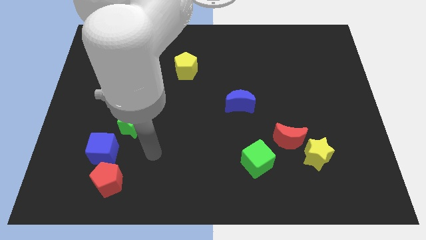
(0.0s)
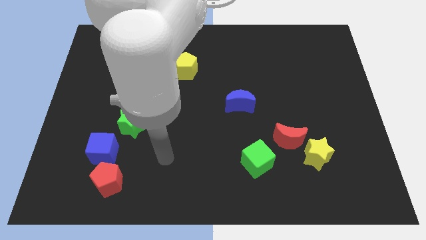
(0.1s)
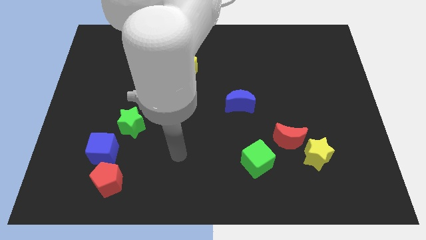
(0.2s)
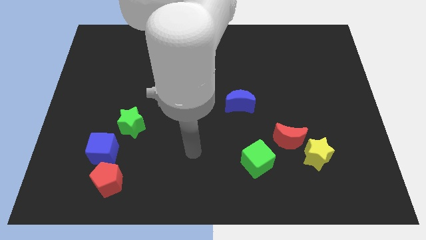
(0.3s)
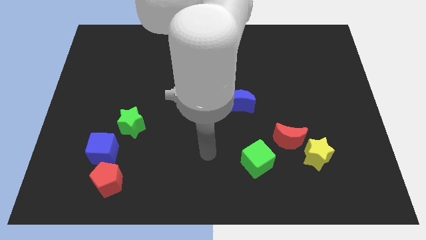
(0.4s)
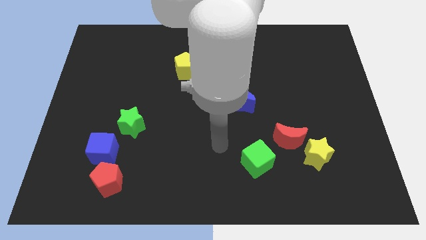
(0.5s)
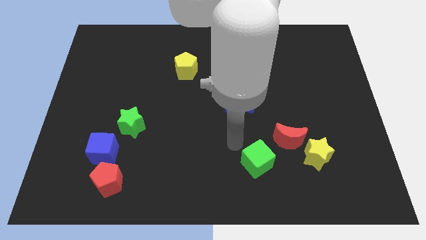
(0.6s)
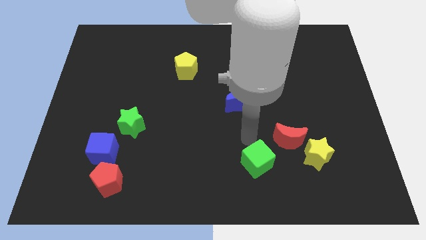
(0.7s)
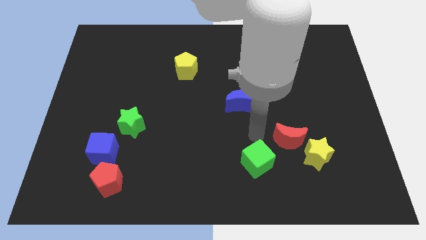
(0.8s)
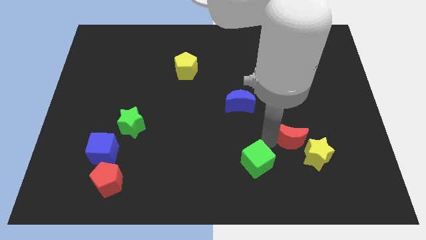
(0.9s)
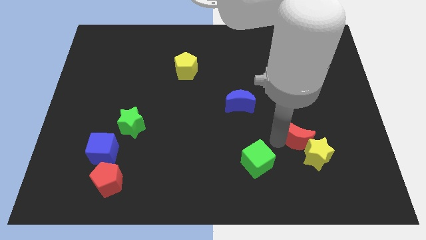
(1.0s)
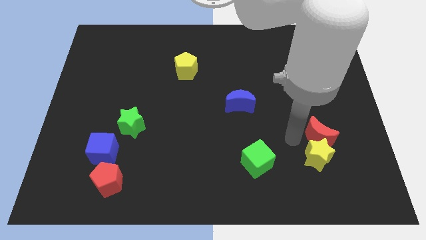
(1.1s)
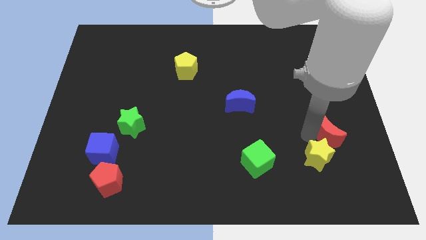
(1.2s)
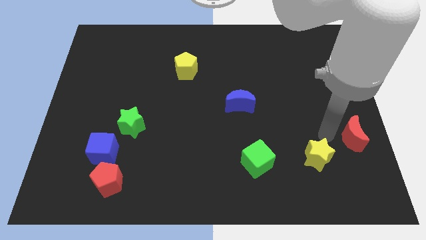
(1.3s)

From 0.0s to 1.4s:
move the yellow star away from the red moon

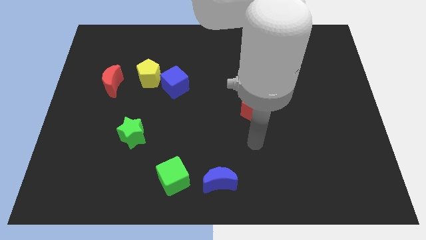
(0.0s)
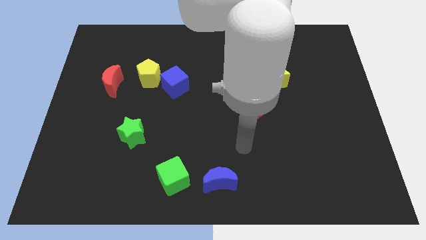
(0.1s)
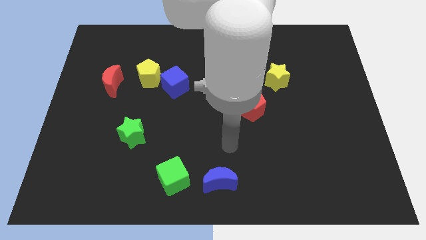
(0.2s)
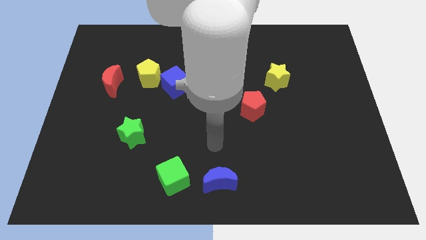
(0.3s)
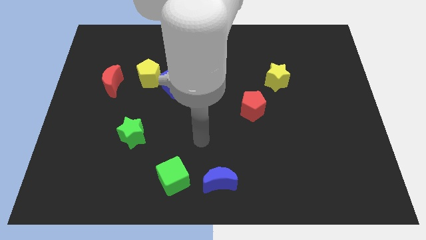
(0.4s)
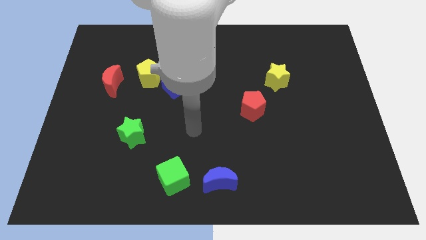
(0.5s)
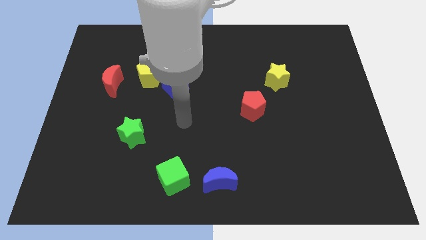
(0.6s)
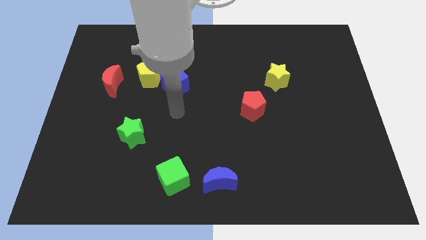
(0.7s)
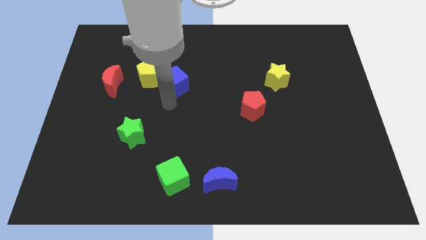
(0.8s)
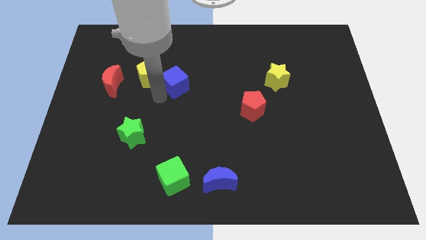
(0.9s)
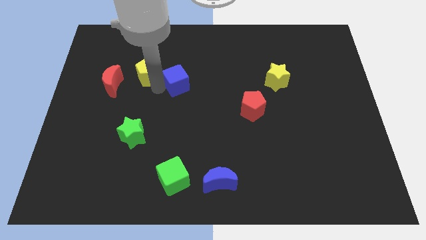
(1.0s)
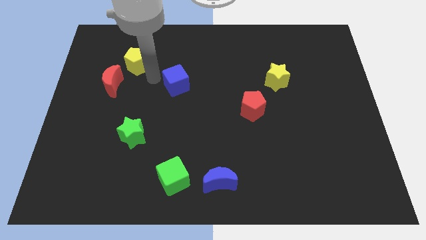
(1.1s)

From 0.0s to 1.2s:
move the blue cube away from the yellow pentagon

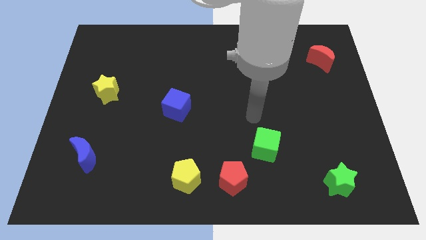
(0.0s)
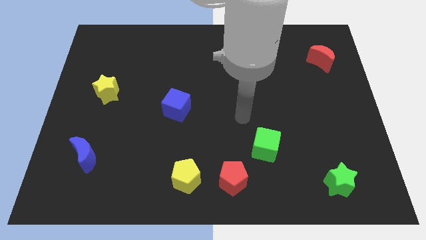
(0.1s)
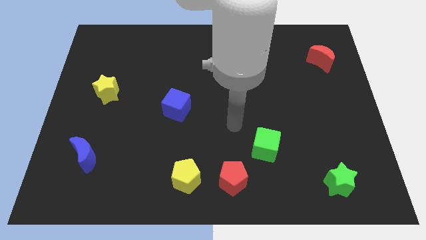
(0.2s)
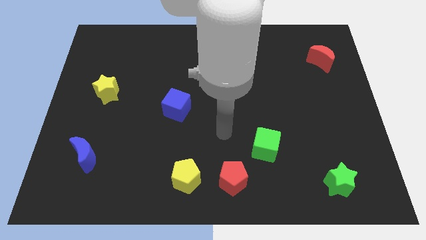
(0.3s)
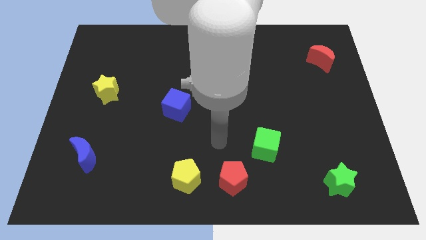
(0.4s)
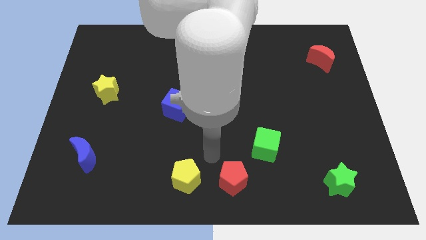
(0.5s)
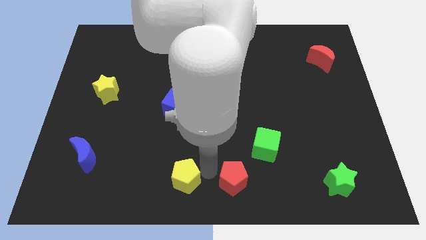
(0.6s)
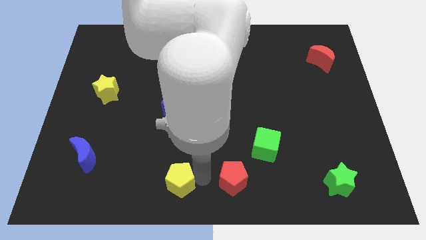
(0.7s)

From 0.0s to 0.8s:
move the red pentagon away from the yellow pentagon

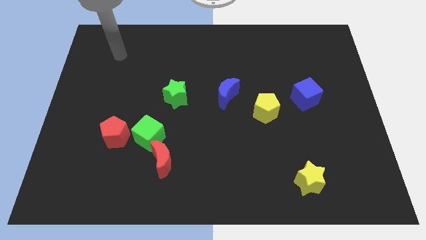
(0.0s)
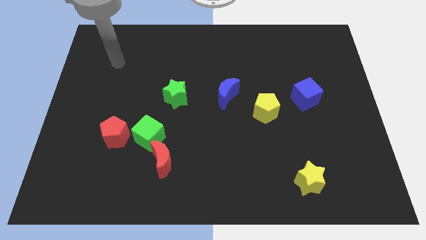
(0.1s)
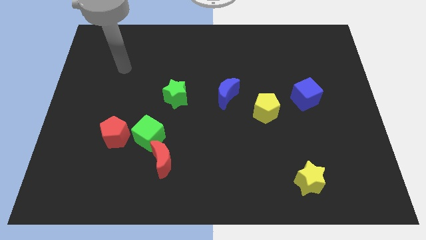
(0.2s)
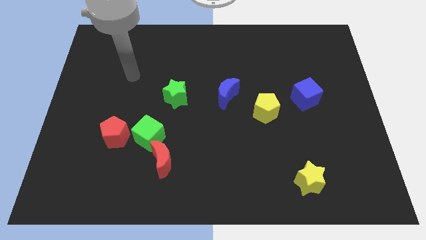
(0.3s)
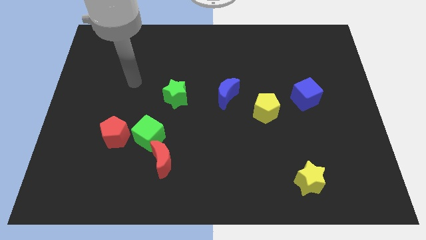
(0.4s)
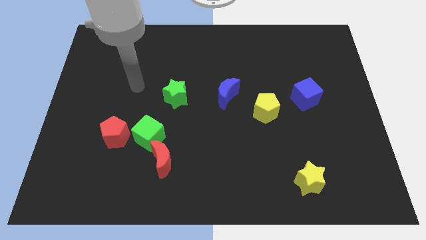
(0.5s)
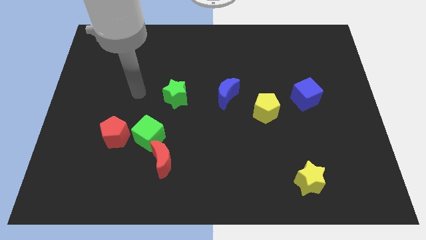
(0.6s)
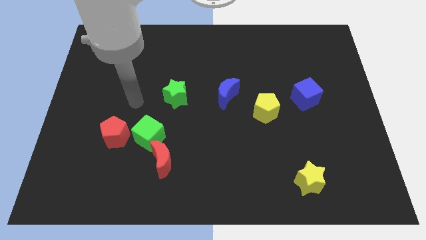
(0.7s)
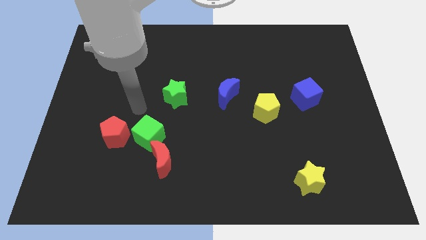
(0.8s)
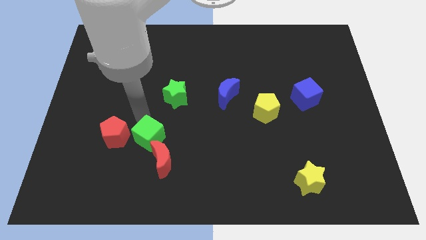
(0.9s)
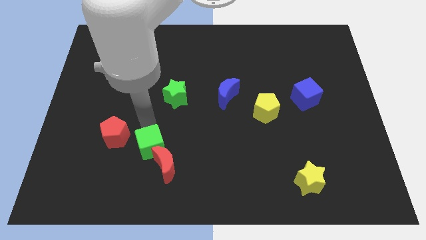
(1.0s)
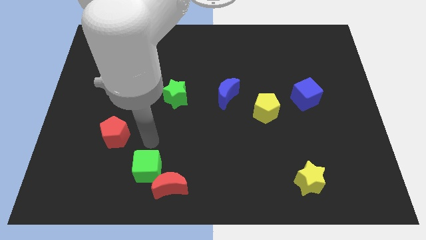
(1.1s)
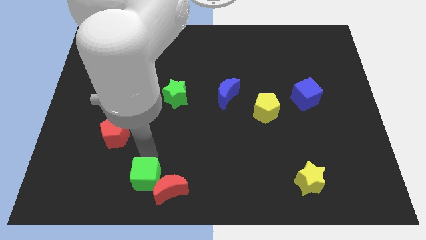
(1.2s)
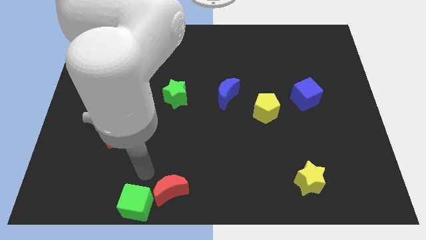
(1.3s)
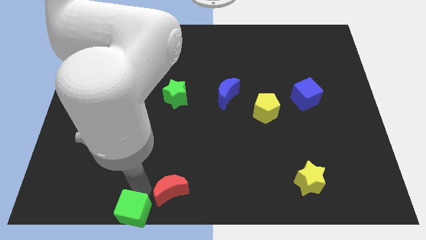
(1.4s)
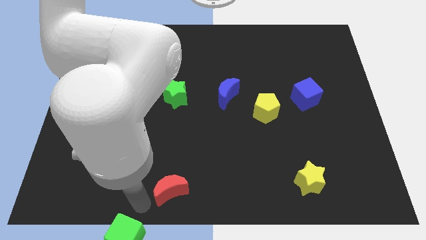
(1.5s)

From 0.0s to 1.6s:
pull the red moon apart from the green cube

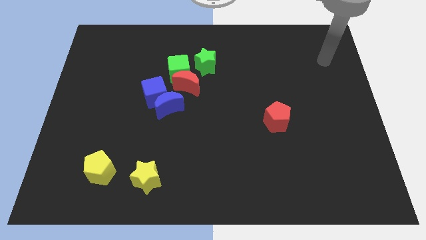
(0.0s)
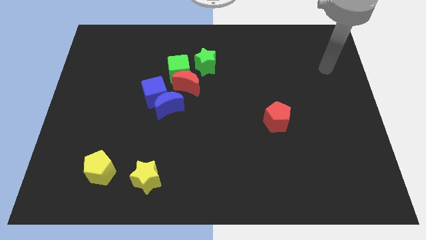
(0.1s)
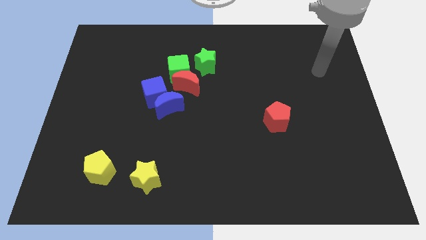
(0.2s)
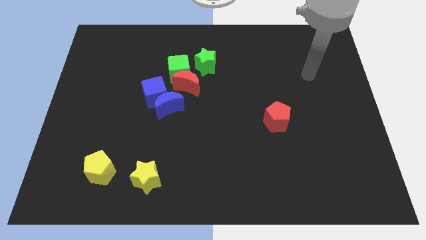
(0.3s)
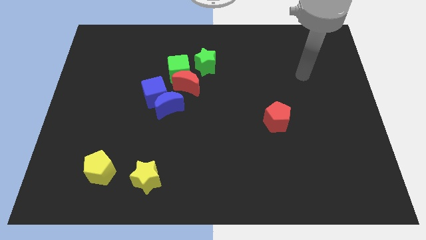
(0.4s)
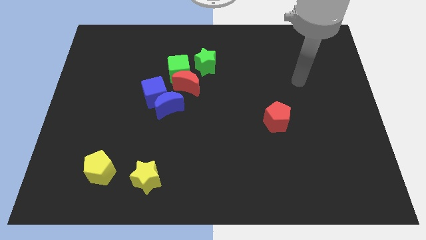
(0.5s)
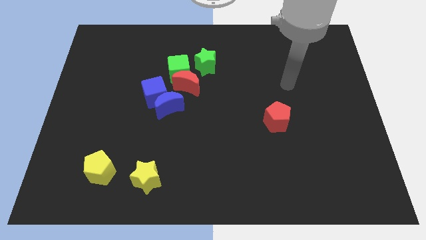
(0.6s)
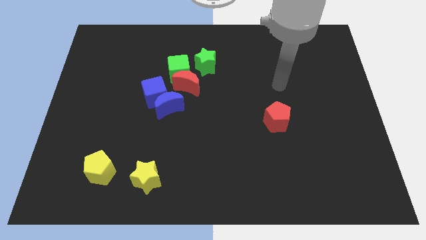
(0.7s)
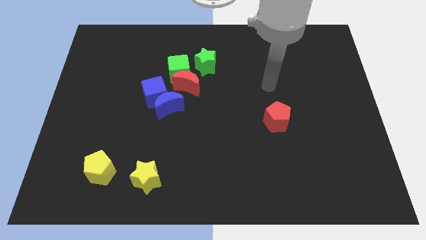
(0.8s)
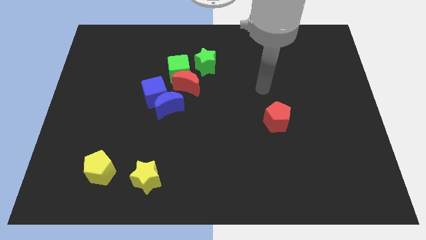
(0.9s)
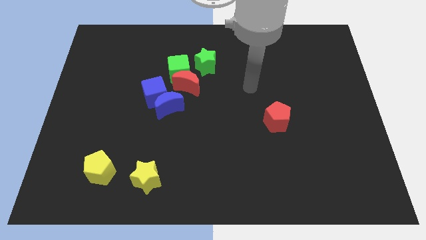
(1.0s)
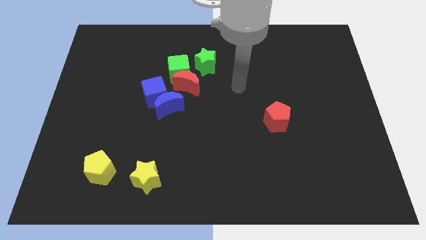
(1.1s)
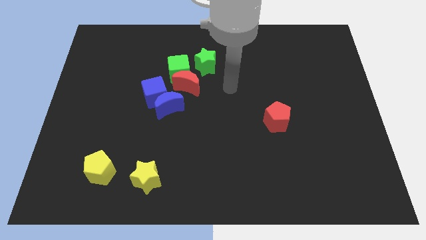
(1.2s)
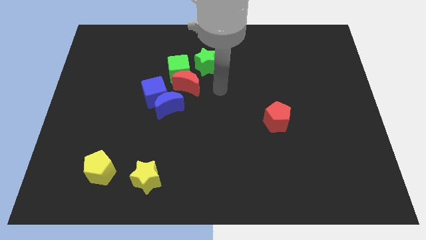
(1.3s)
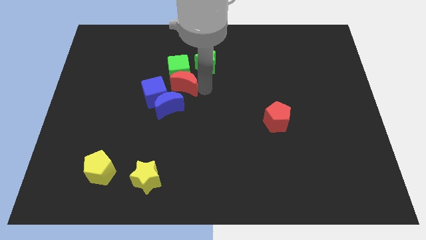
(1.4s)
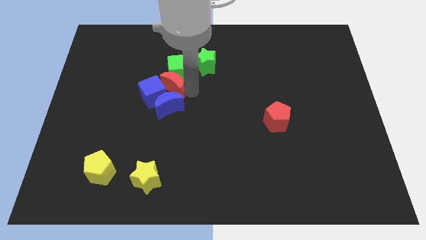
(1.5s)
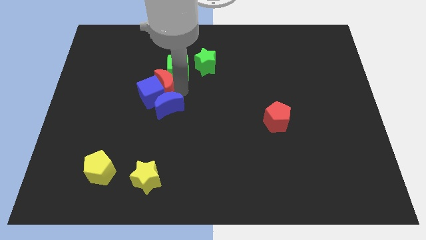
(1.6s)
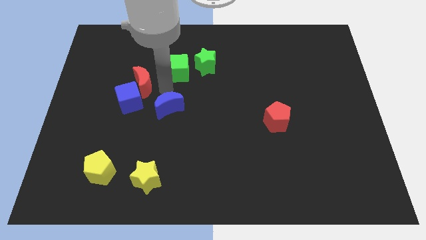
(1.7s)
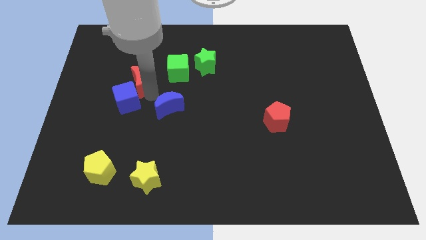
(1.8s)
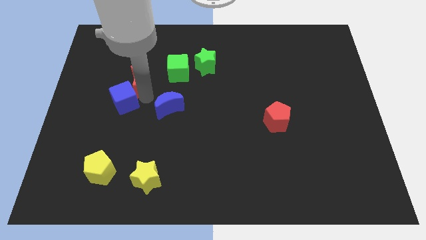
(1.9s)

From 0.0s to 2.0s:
move the blue moon away from the blue cube and red moon

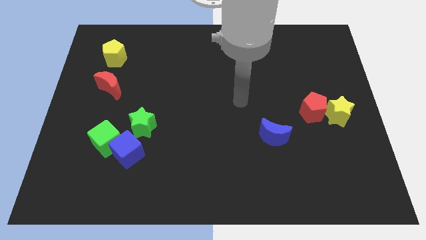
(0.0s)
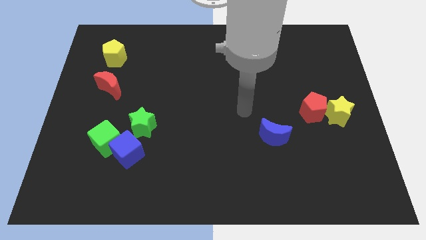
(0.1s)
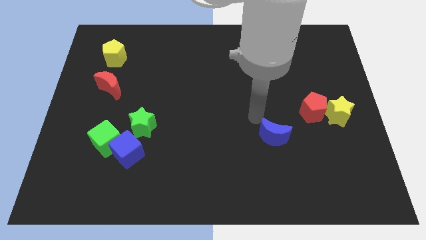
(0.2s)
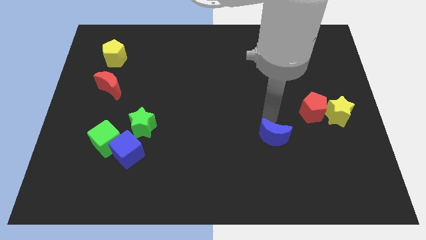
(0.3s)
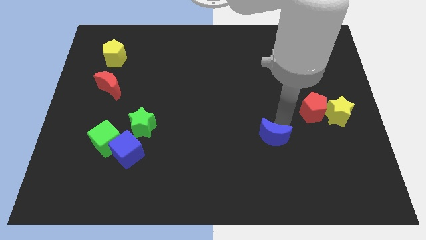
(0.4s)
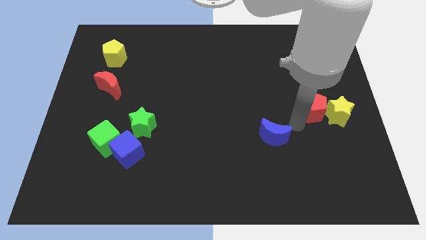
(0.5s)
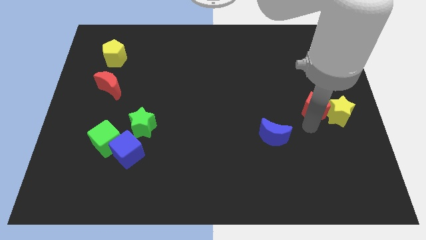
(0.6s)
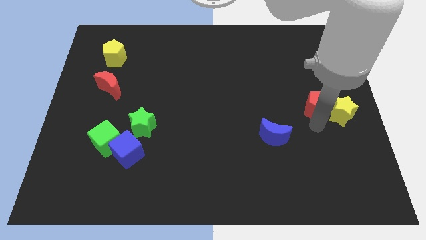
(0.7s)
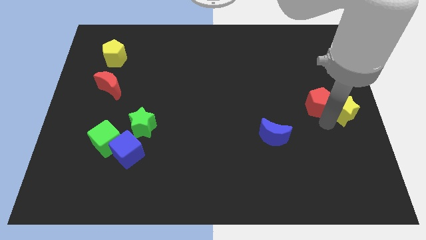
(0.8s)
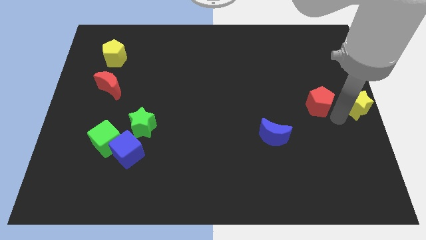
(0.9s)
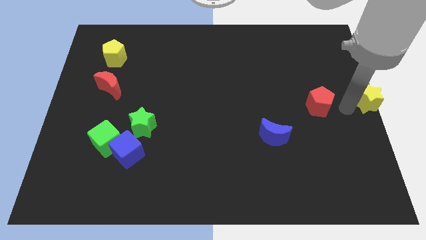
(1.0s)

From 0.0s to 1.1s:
separate the red pentagon from the yellow star

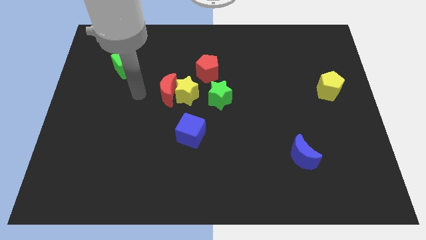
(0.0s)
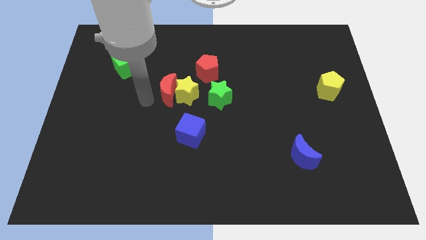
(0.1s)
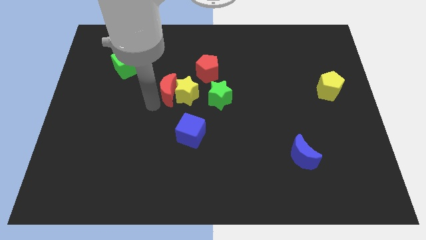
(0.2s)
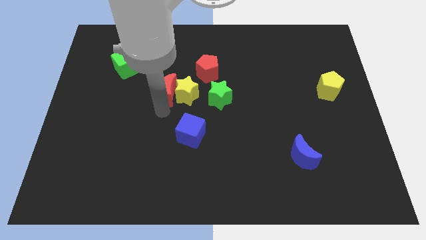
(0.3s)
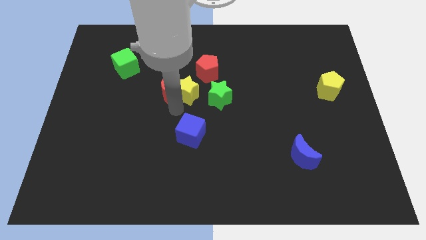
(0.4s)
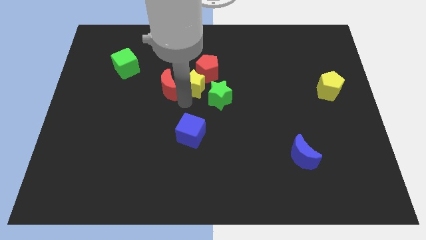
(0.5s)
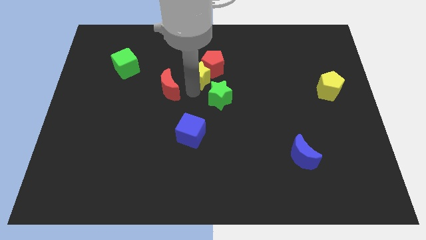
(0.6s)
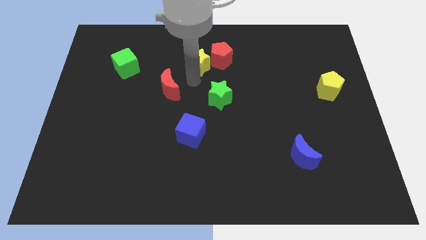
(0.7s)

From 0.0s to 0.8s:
move the red moon away from the yellow star

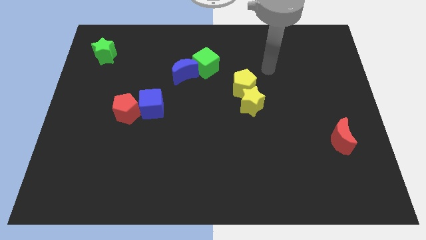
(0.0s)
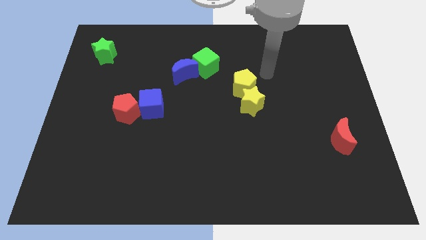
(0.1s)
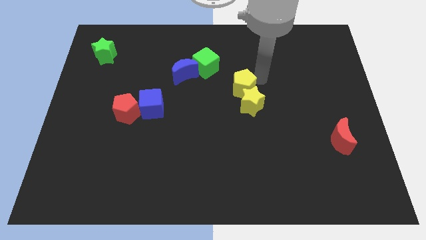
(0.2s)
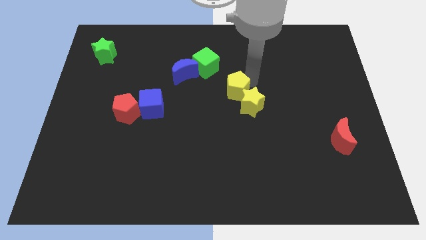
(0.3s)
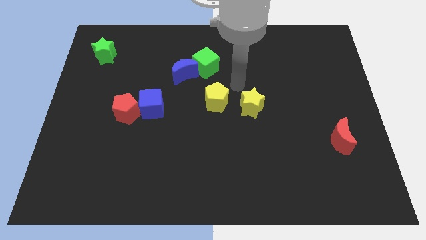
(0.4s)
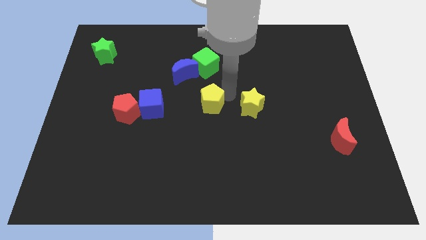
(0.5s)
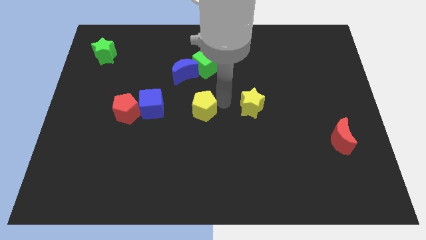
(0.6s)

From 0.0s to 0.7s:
pull the yellow star apart from the yellow pentagon
